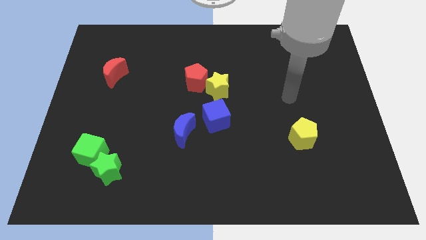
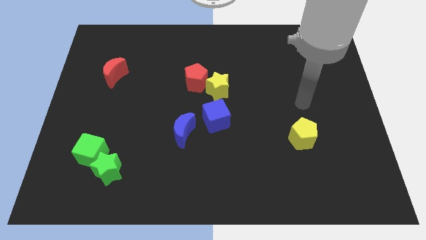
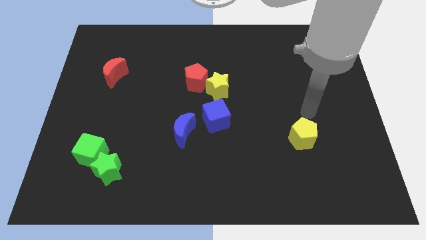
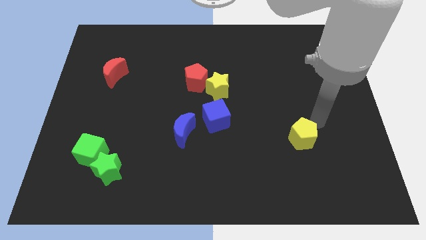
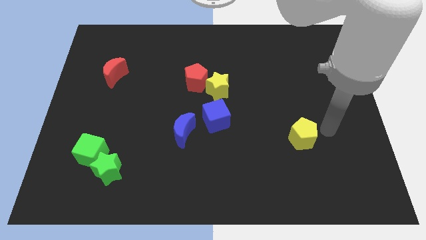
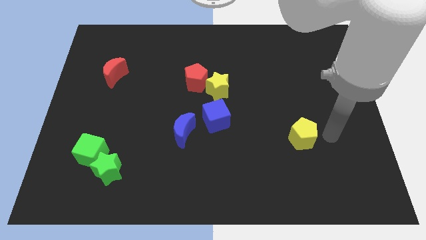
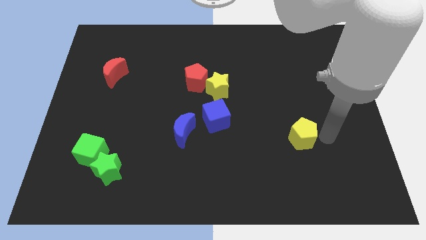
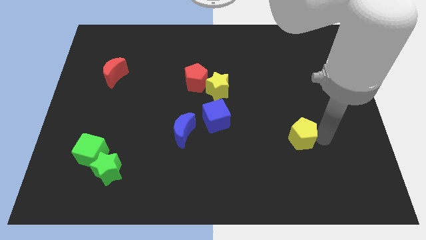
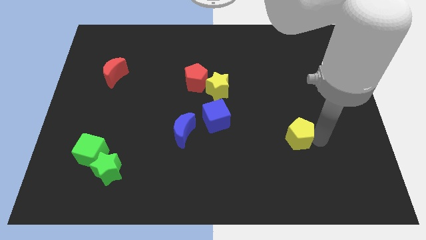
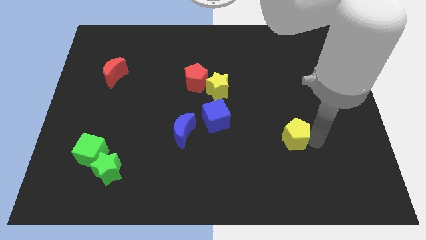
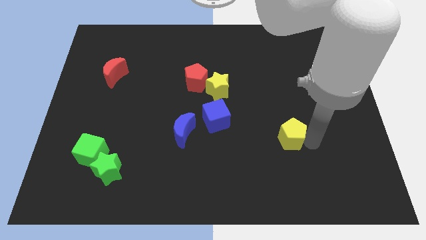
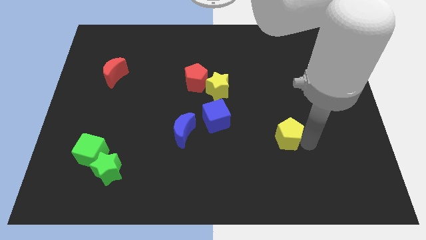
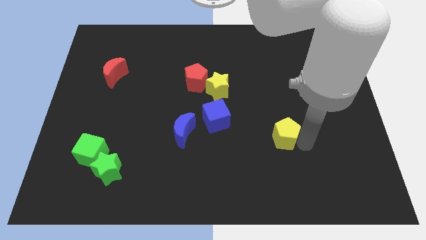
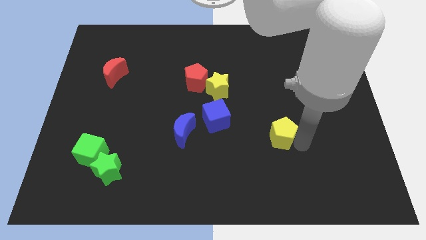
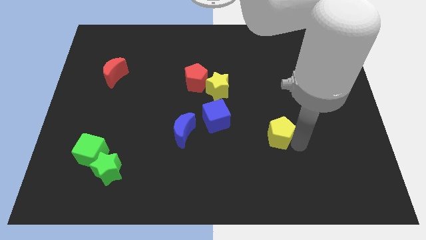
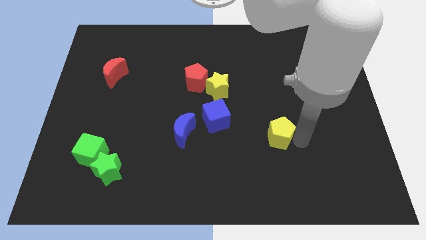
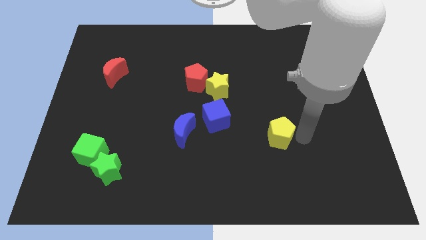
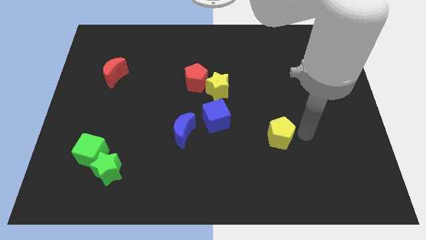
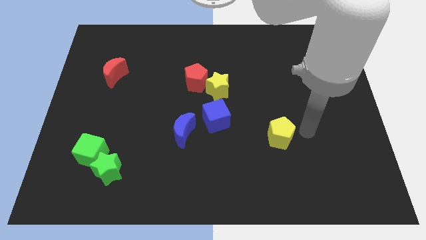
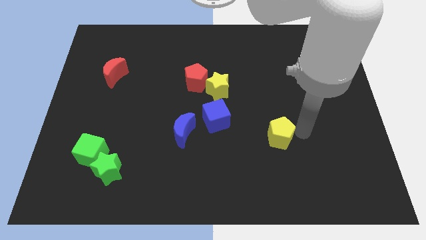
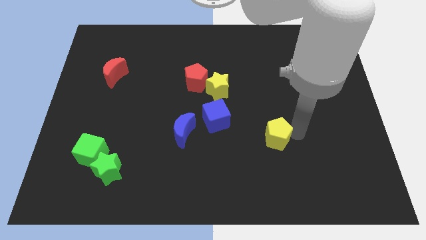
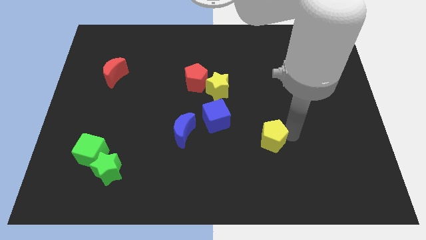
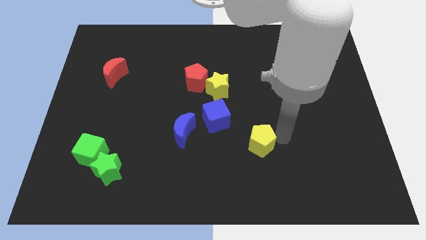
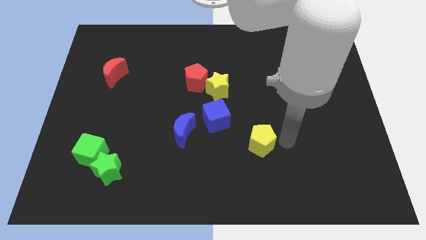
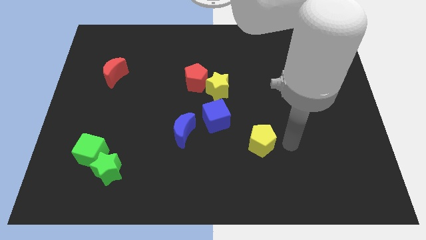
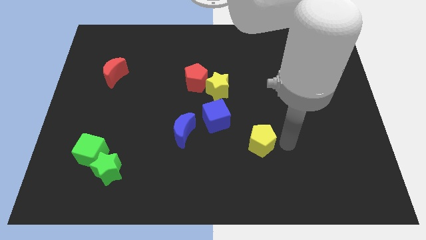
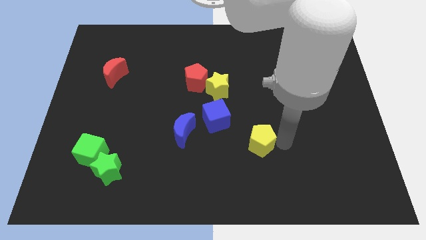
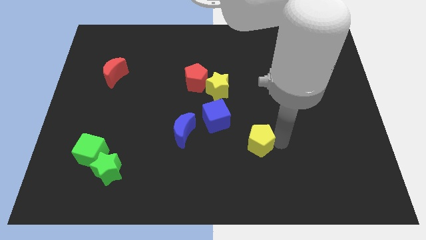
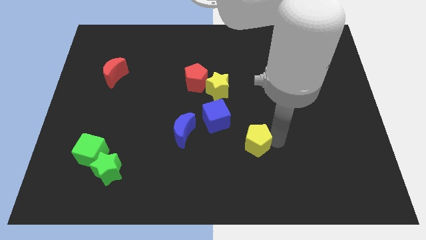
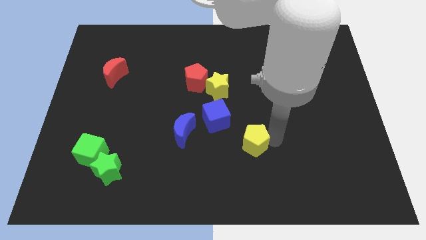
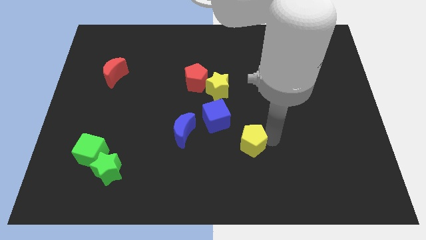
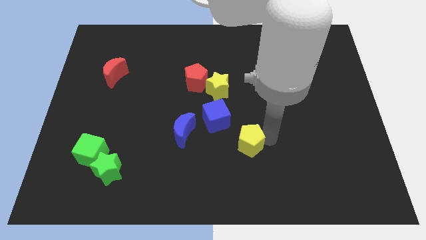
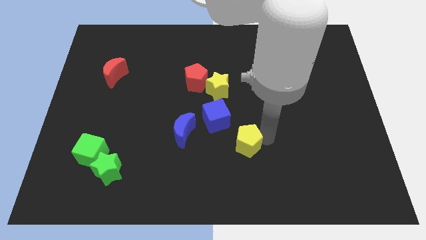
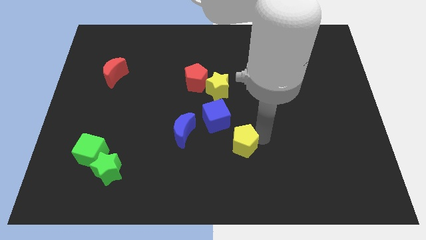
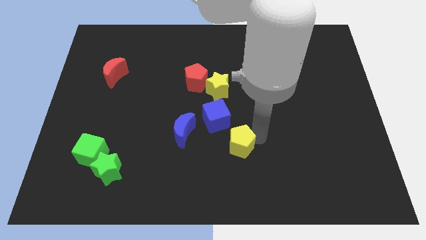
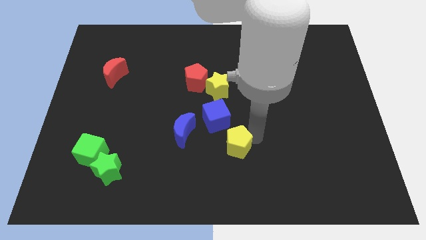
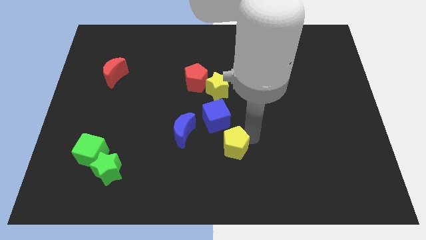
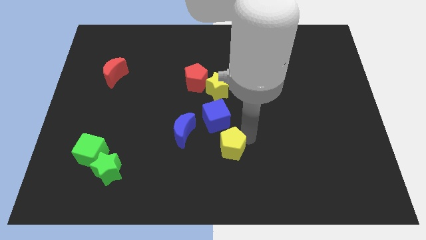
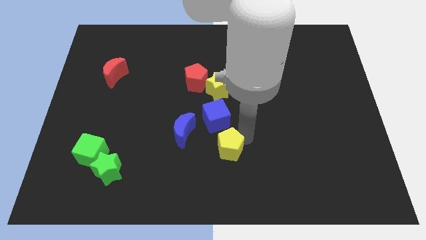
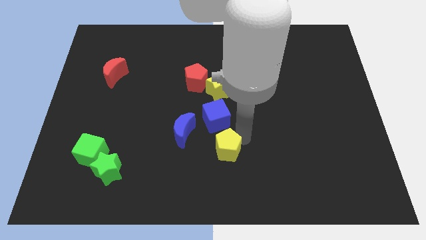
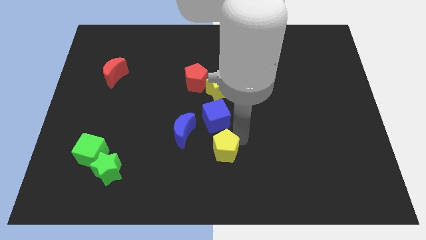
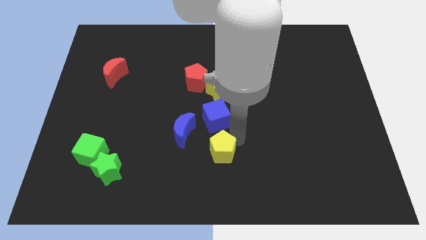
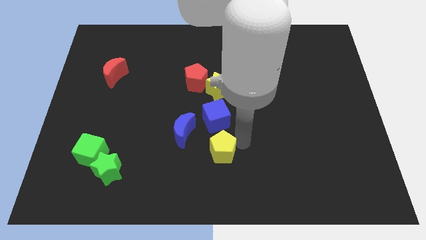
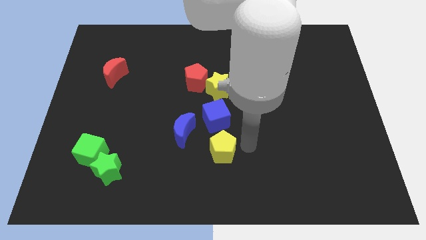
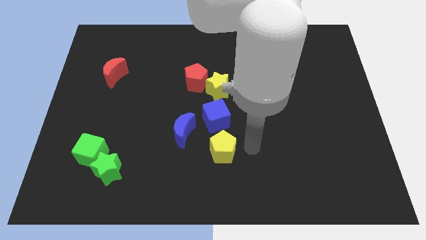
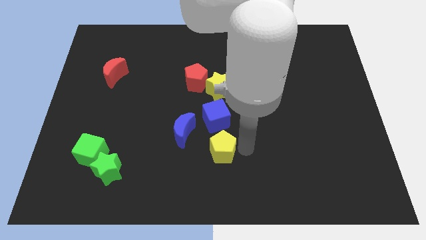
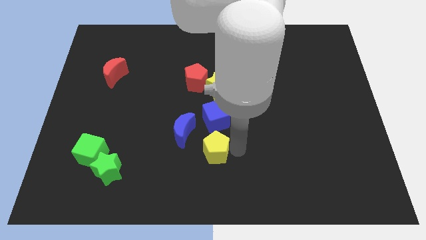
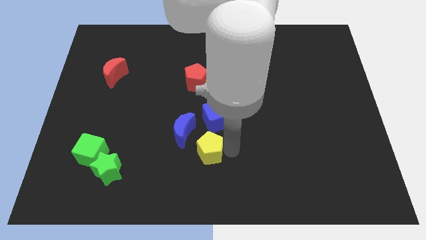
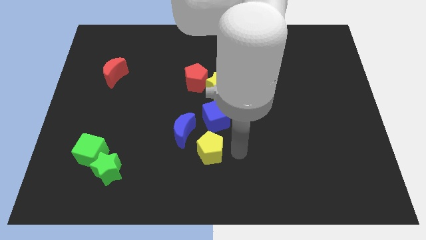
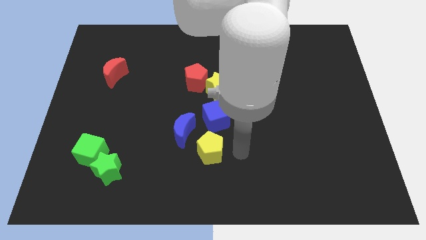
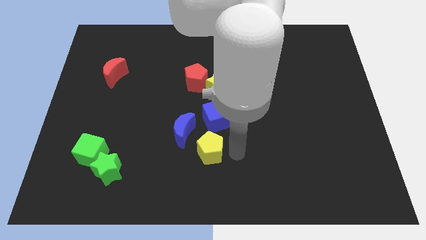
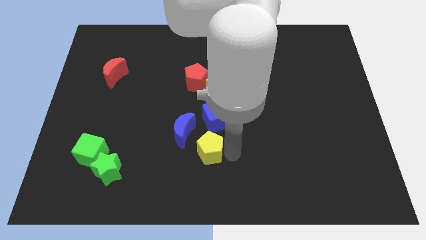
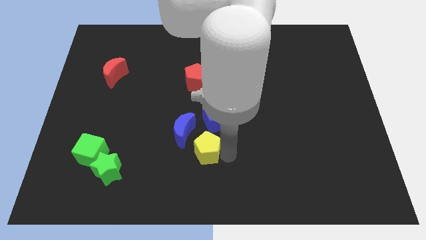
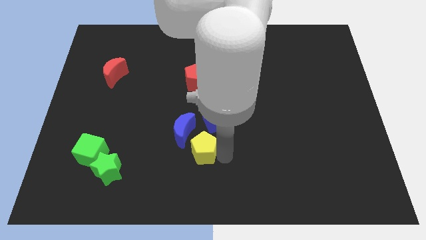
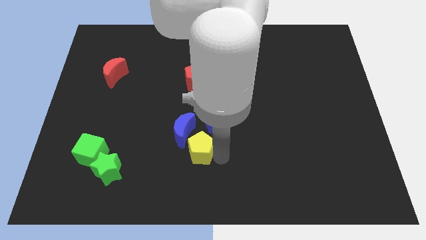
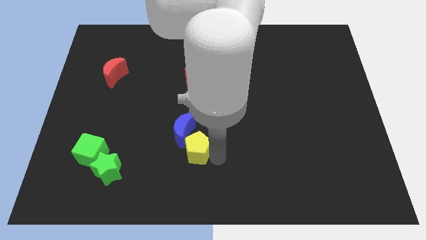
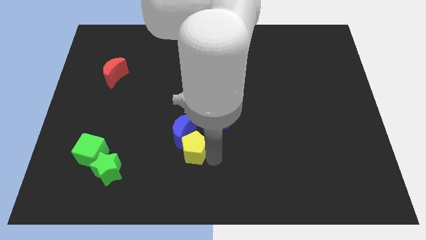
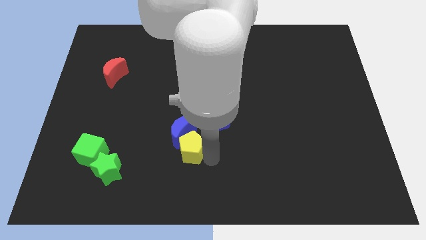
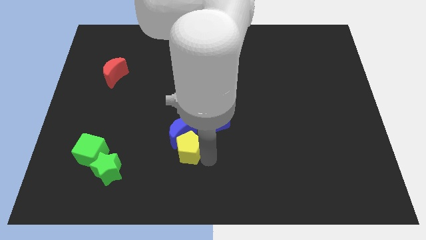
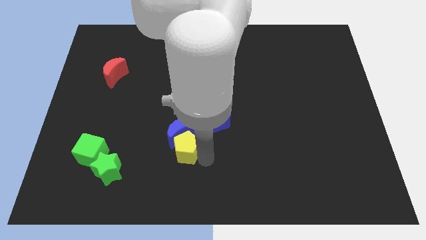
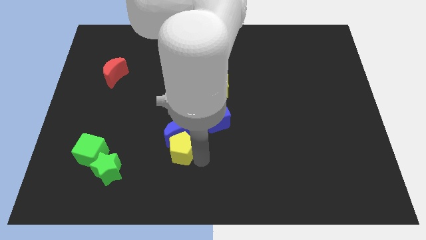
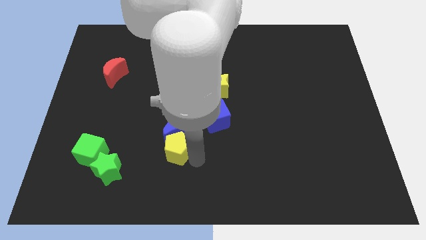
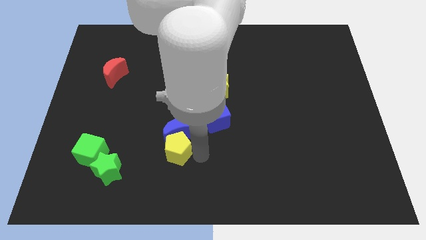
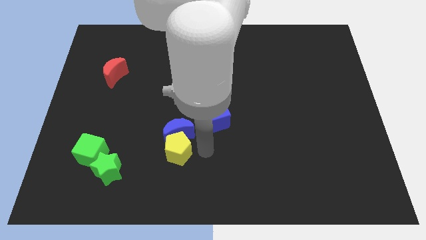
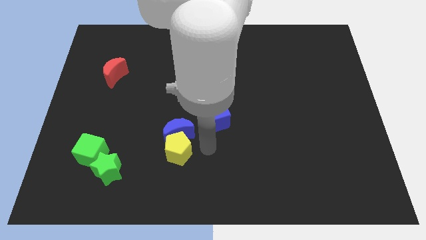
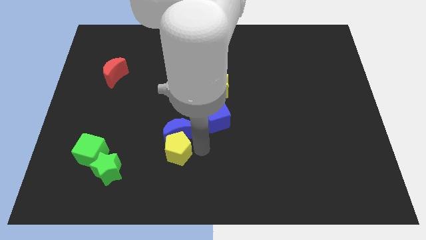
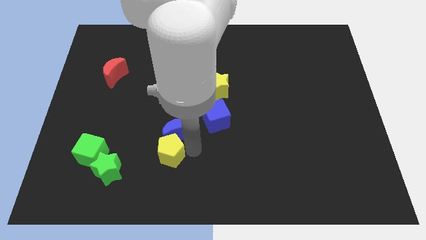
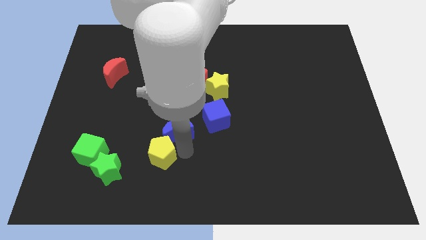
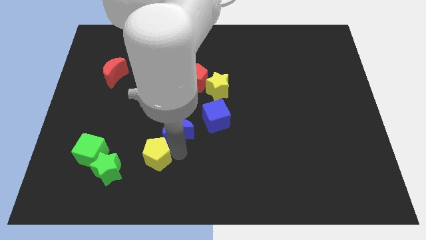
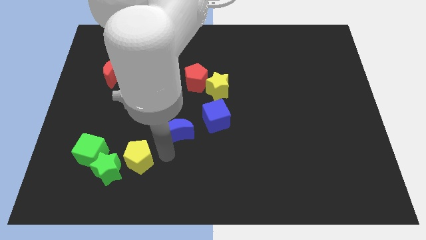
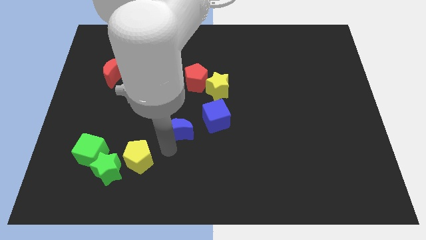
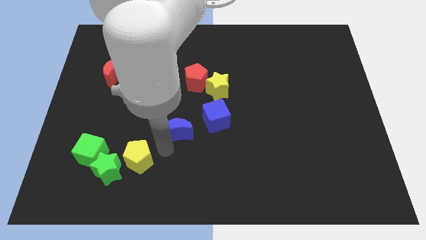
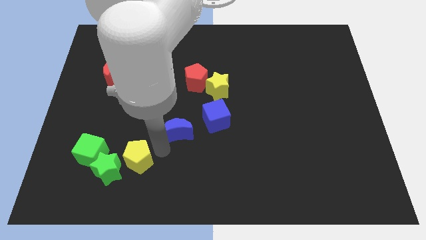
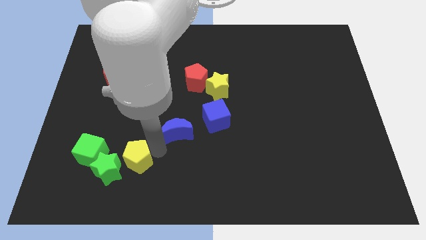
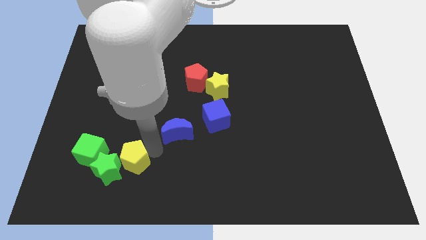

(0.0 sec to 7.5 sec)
move the yellow pentagon next to the green star
